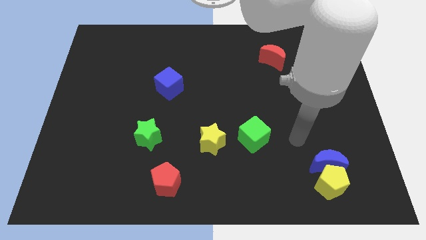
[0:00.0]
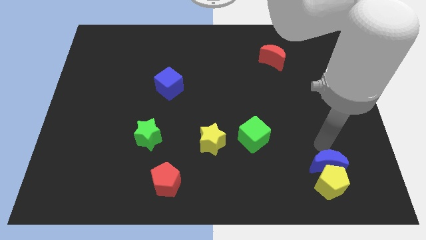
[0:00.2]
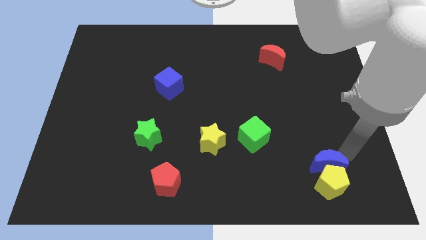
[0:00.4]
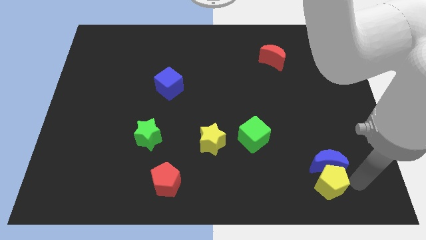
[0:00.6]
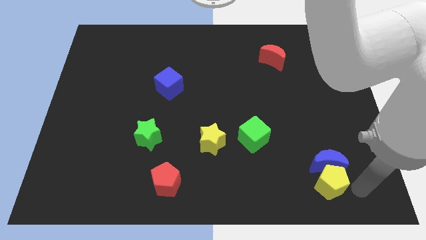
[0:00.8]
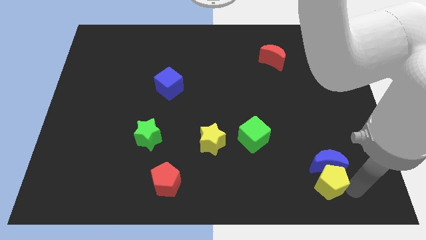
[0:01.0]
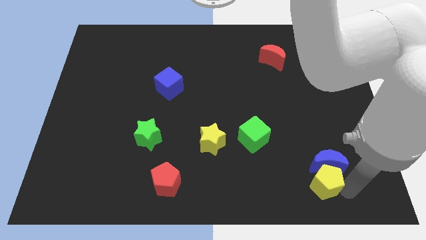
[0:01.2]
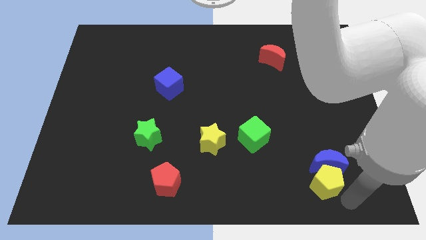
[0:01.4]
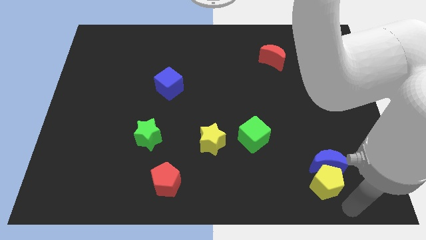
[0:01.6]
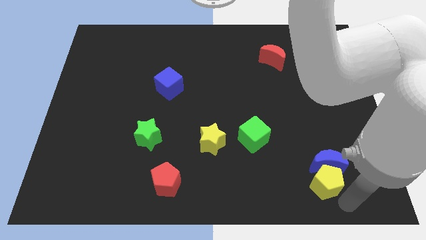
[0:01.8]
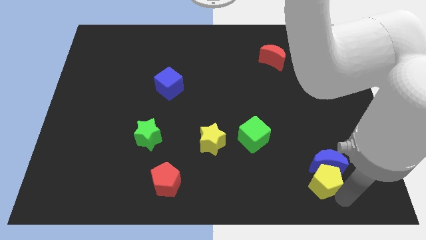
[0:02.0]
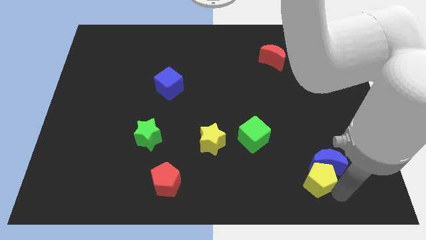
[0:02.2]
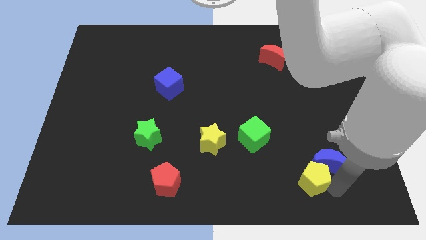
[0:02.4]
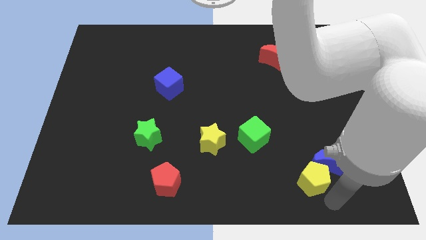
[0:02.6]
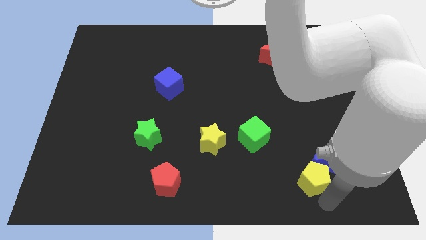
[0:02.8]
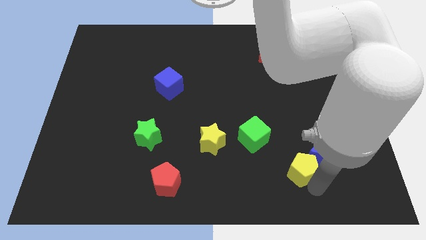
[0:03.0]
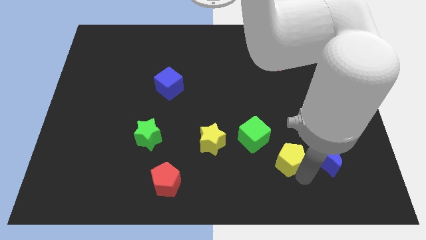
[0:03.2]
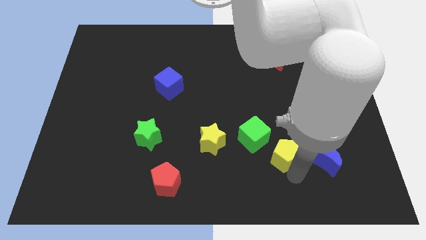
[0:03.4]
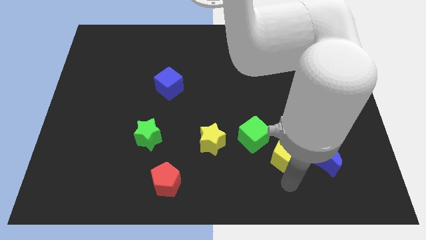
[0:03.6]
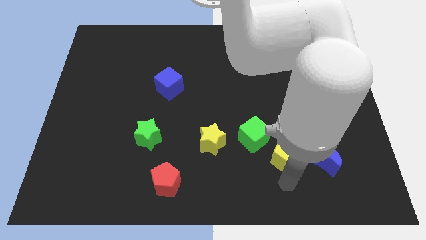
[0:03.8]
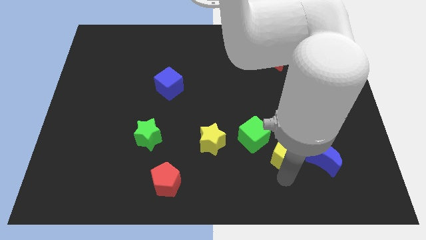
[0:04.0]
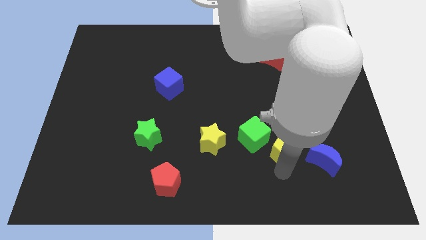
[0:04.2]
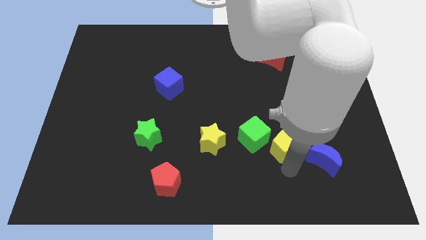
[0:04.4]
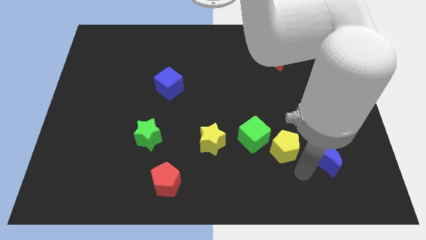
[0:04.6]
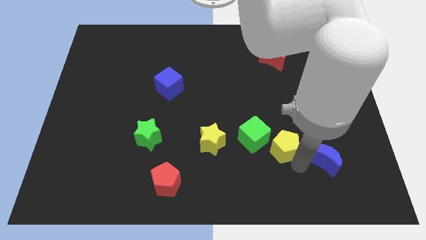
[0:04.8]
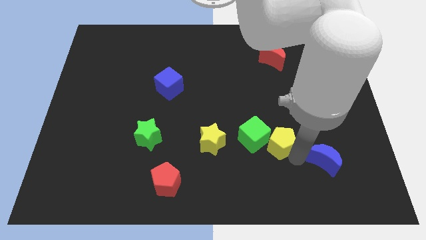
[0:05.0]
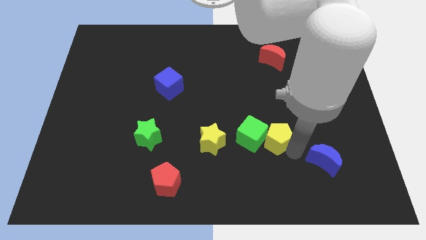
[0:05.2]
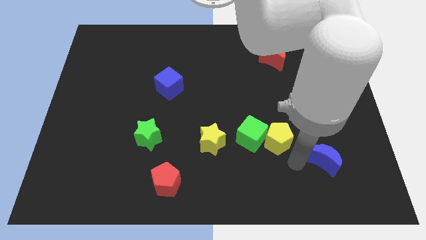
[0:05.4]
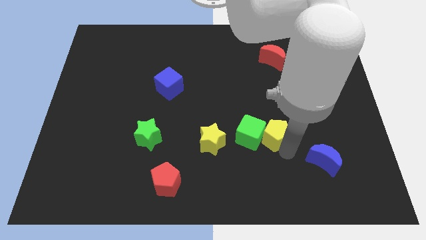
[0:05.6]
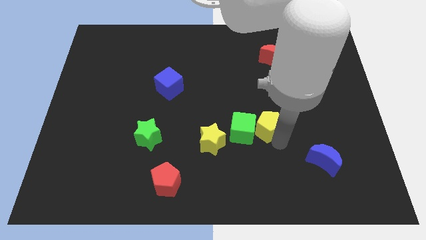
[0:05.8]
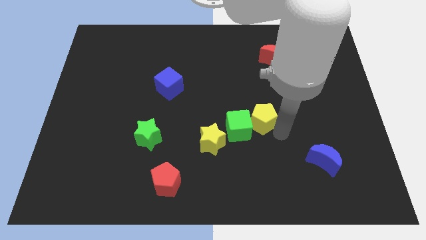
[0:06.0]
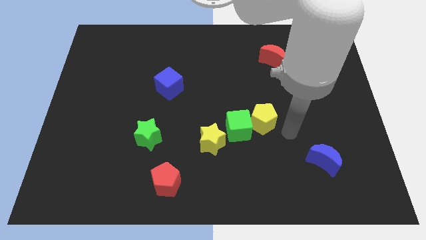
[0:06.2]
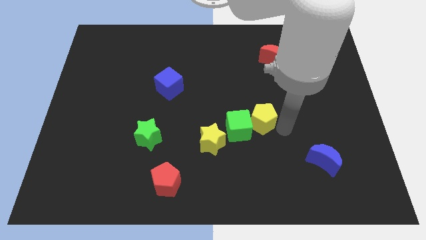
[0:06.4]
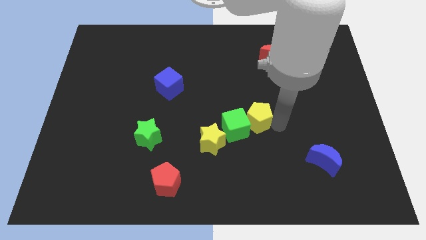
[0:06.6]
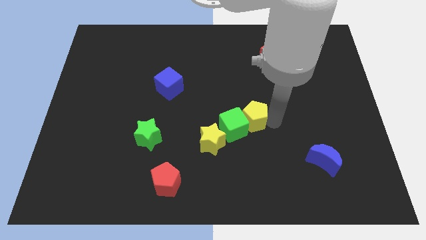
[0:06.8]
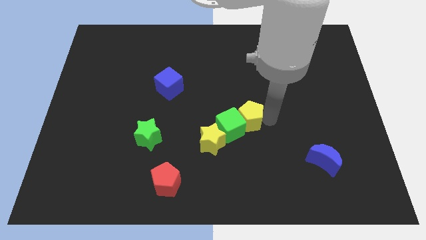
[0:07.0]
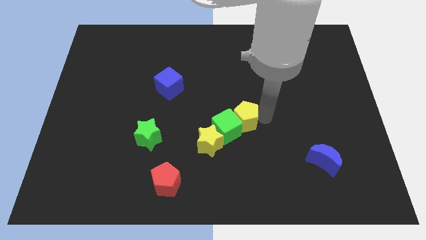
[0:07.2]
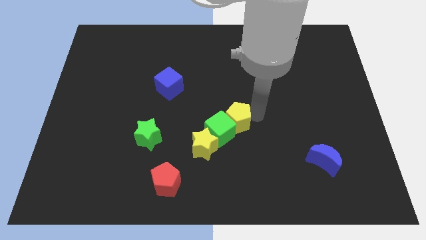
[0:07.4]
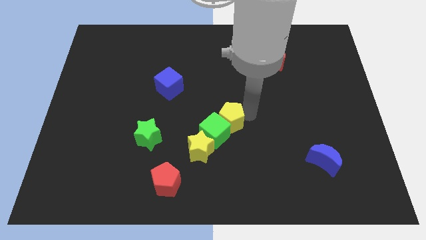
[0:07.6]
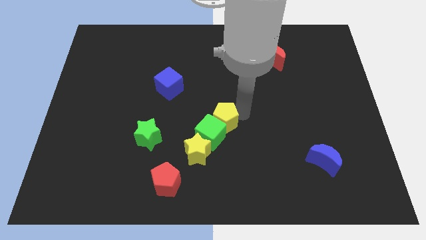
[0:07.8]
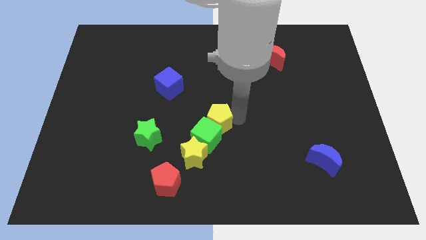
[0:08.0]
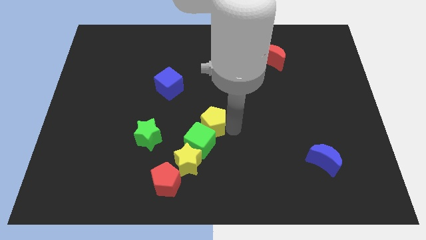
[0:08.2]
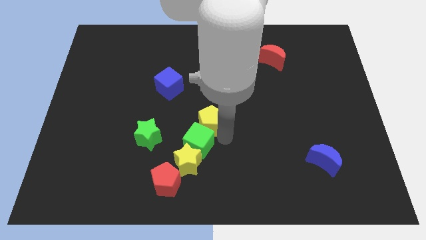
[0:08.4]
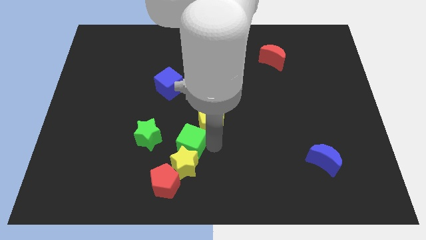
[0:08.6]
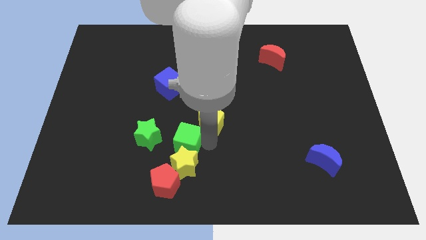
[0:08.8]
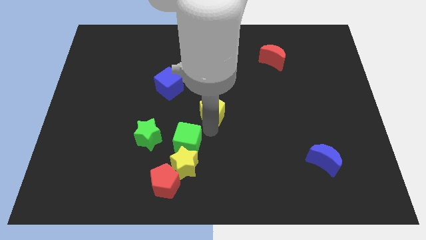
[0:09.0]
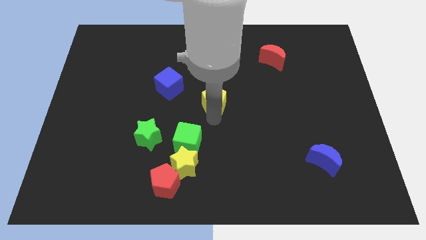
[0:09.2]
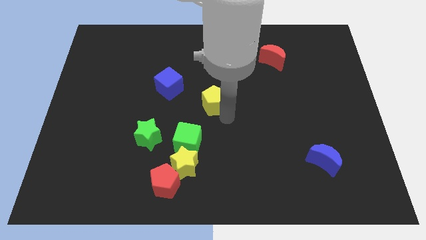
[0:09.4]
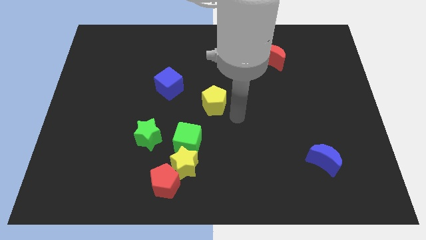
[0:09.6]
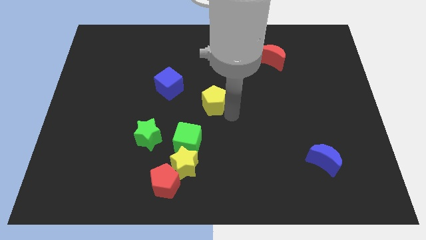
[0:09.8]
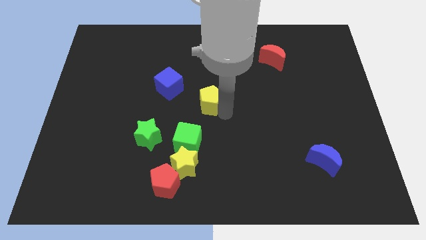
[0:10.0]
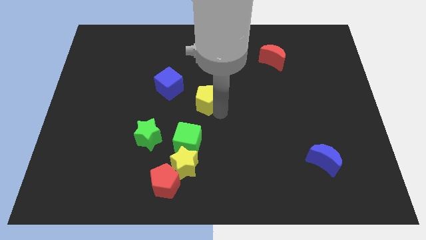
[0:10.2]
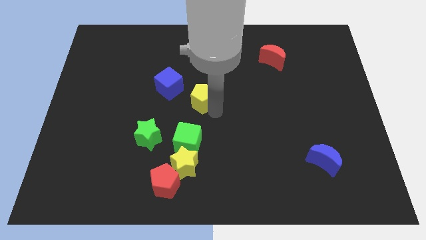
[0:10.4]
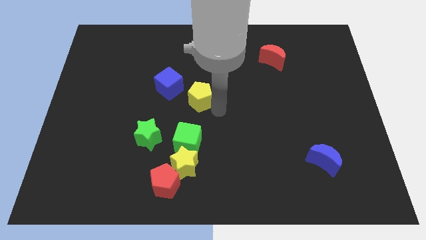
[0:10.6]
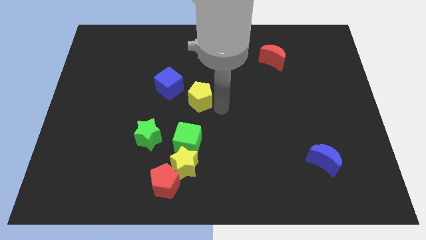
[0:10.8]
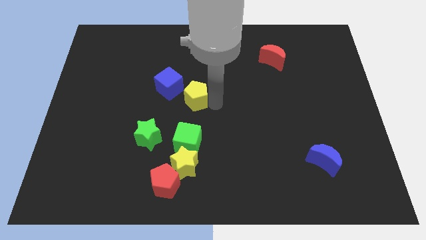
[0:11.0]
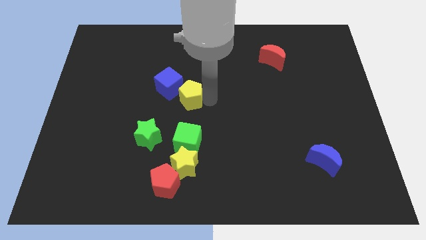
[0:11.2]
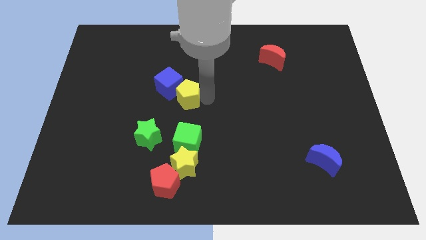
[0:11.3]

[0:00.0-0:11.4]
put the yellow pentagon close to the blue cube

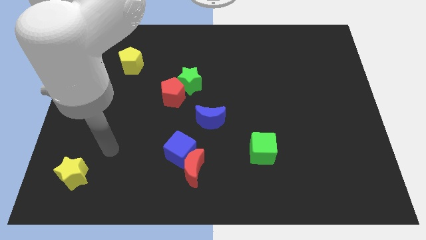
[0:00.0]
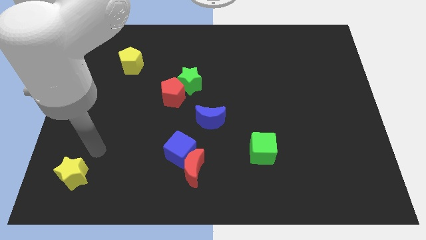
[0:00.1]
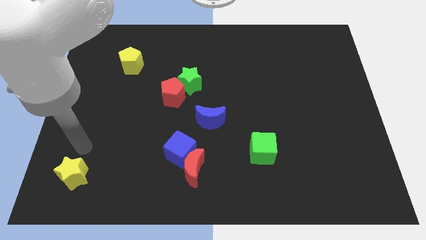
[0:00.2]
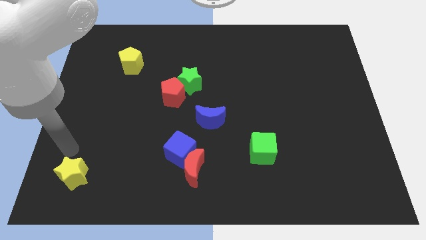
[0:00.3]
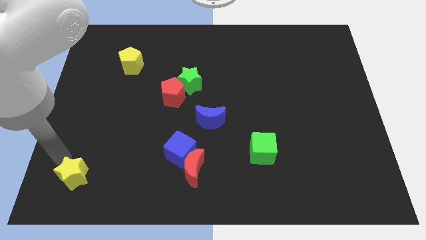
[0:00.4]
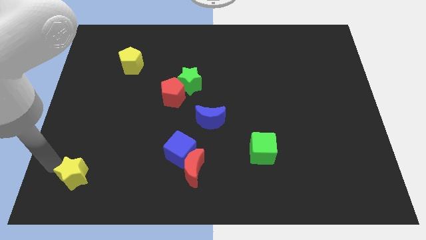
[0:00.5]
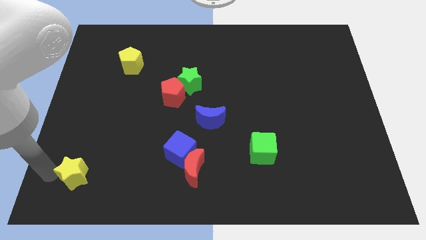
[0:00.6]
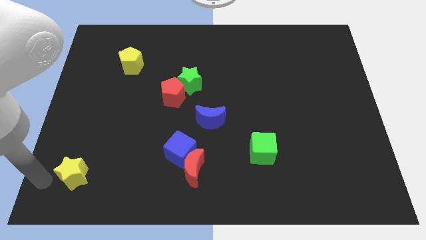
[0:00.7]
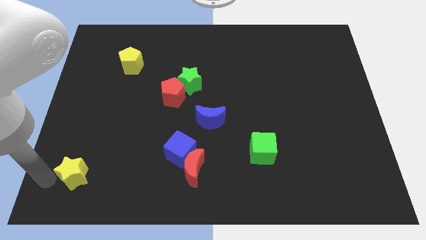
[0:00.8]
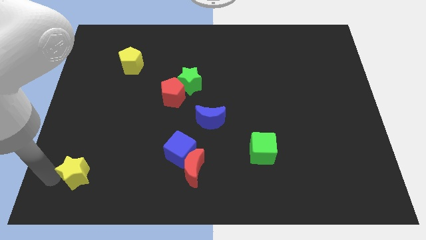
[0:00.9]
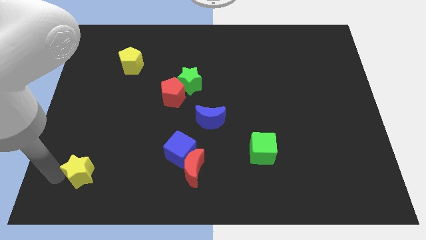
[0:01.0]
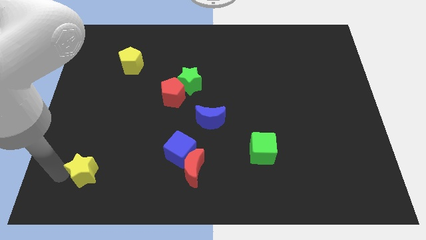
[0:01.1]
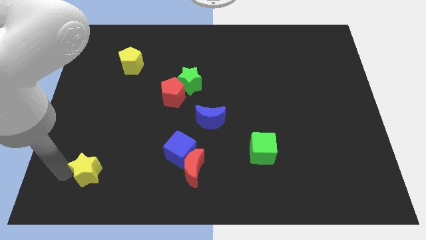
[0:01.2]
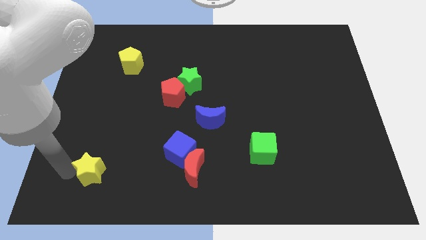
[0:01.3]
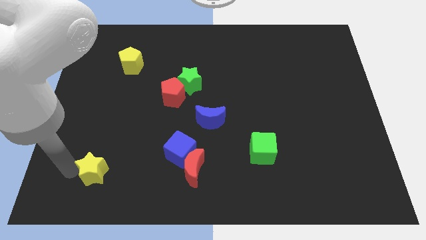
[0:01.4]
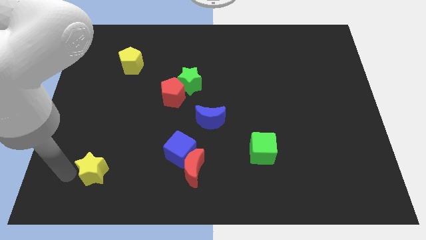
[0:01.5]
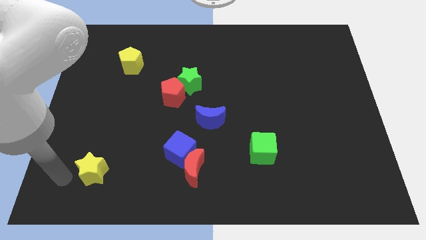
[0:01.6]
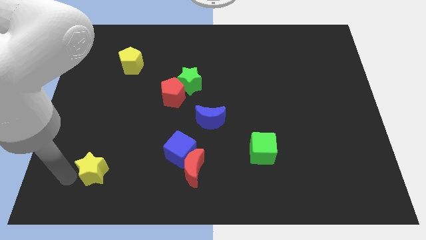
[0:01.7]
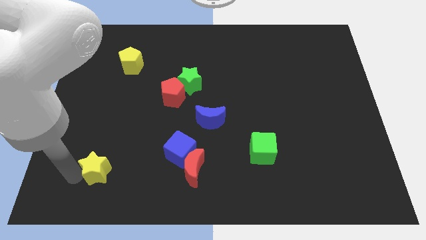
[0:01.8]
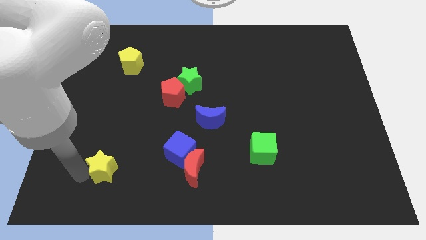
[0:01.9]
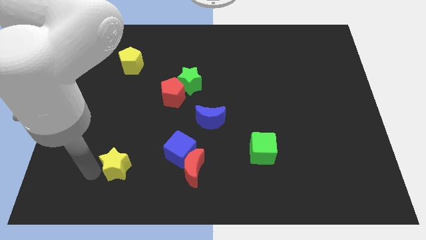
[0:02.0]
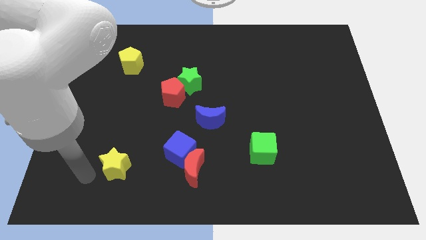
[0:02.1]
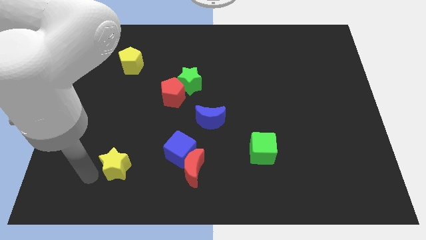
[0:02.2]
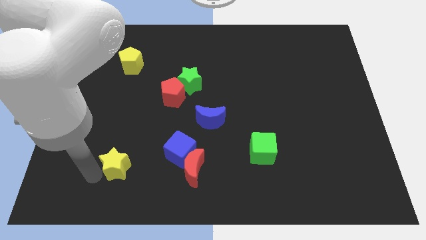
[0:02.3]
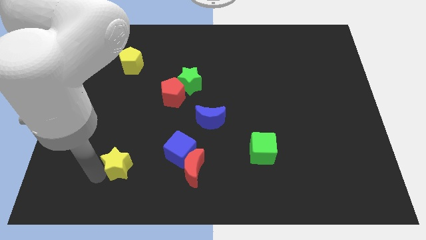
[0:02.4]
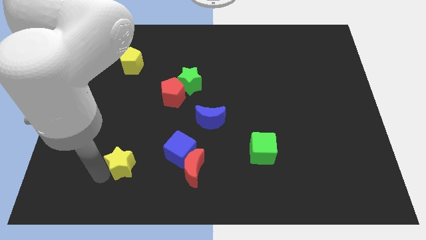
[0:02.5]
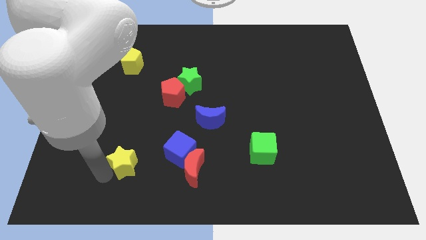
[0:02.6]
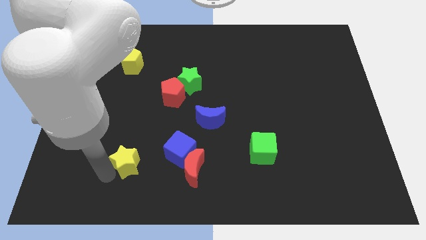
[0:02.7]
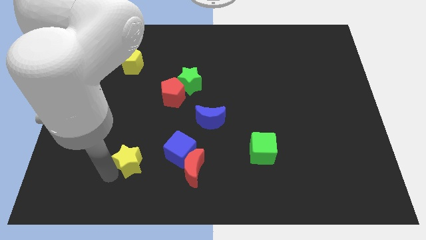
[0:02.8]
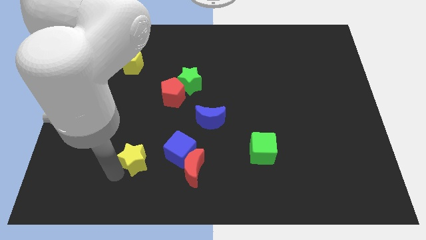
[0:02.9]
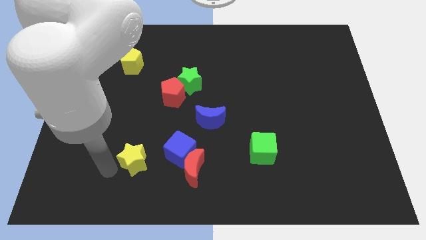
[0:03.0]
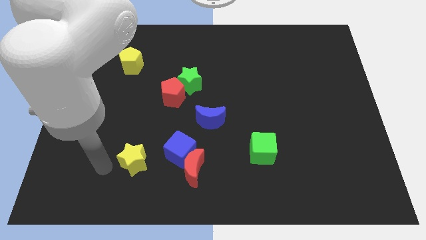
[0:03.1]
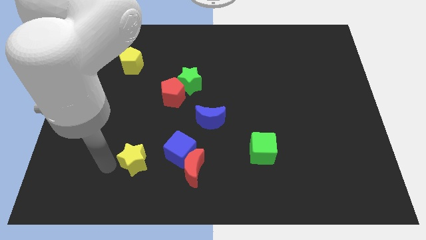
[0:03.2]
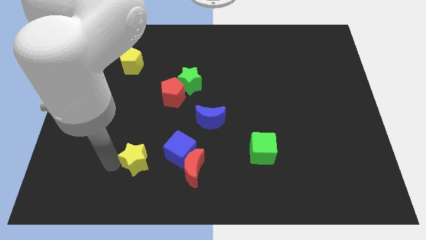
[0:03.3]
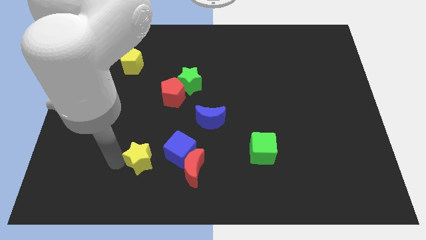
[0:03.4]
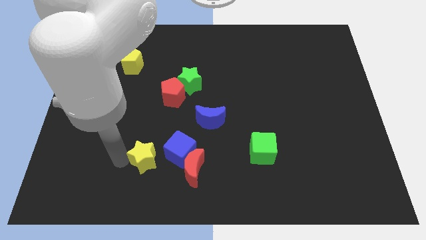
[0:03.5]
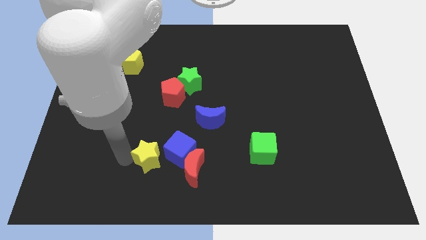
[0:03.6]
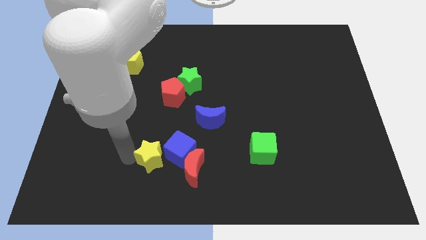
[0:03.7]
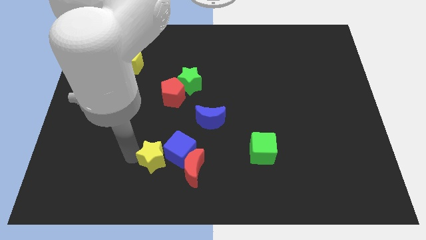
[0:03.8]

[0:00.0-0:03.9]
put the yellow star towards the blue cube
